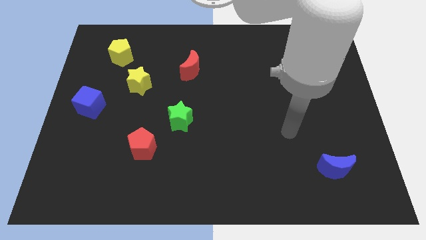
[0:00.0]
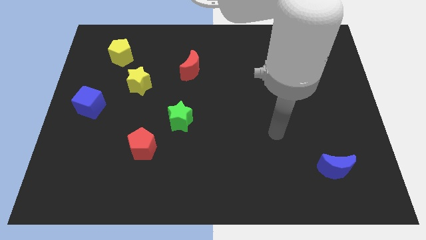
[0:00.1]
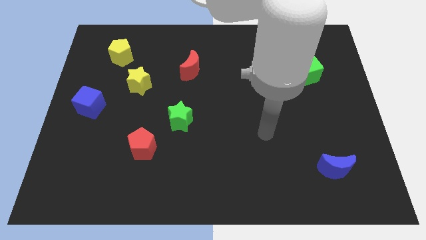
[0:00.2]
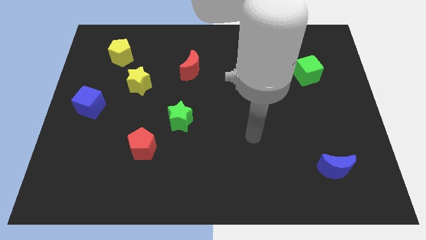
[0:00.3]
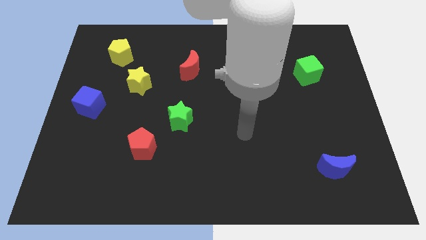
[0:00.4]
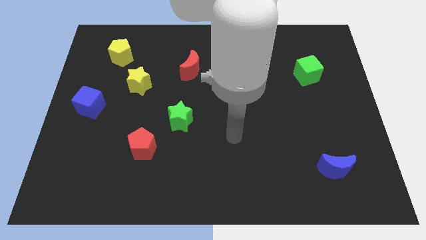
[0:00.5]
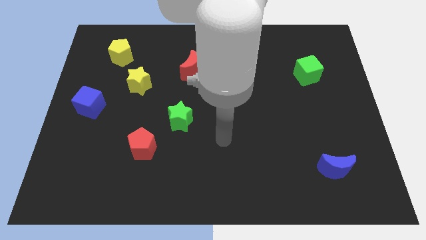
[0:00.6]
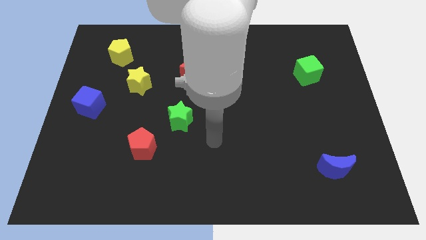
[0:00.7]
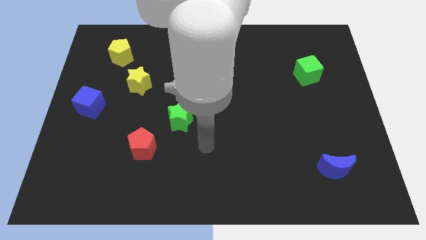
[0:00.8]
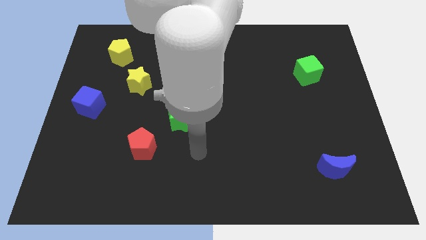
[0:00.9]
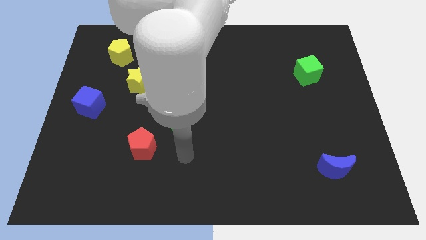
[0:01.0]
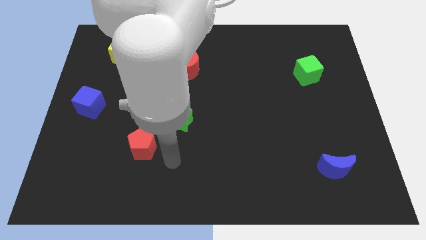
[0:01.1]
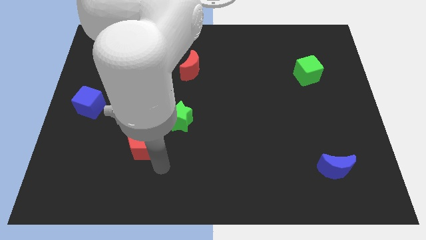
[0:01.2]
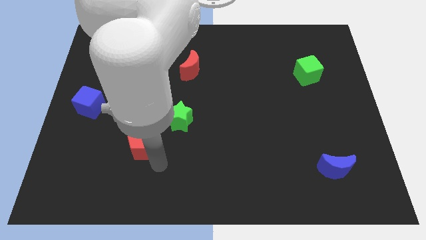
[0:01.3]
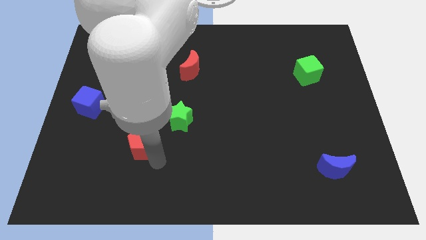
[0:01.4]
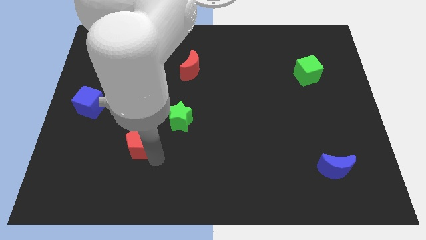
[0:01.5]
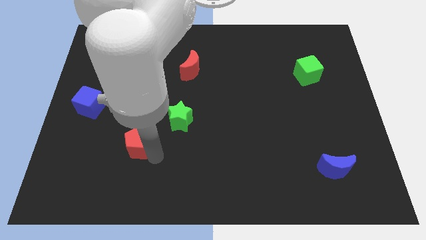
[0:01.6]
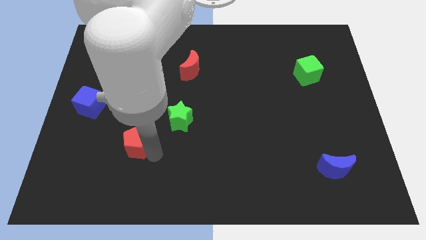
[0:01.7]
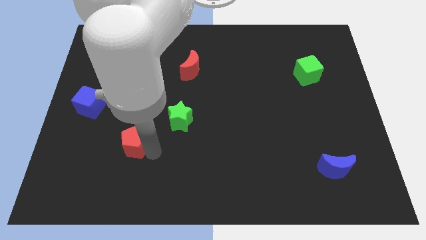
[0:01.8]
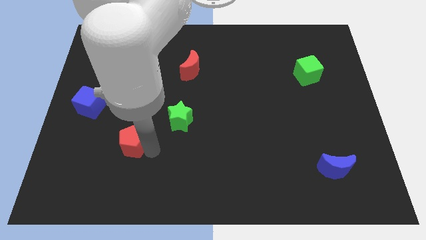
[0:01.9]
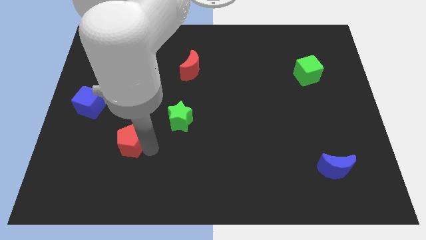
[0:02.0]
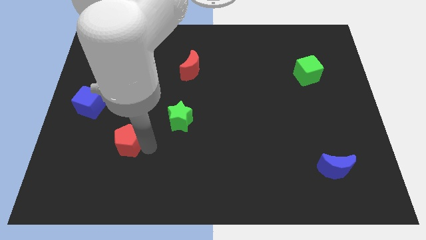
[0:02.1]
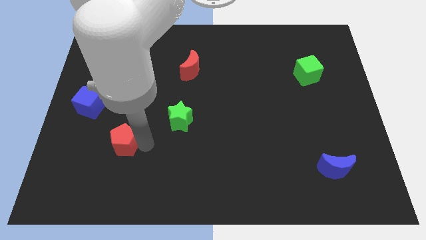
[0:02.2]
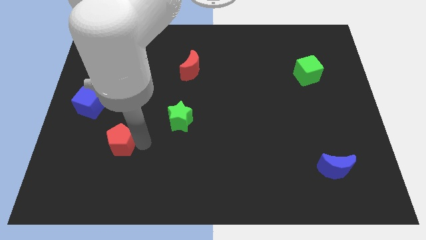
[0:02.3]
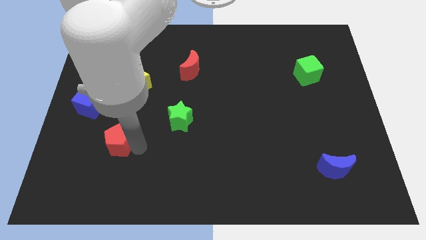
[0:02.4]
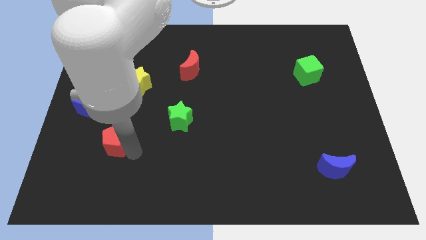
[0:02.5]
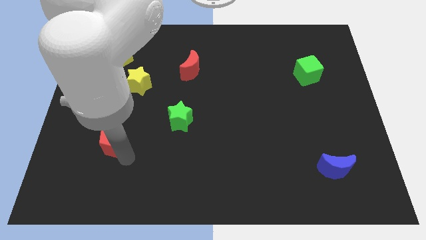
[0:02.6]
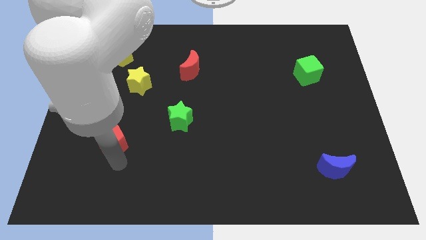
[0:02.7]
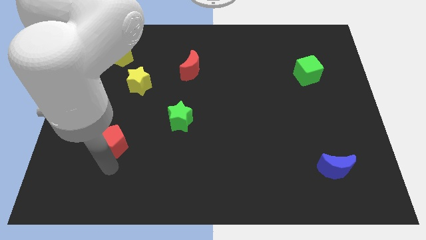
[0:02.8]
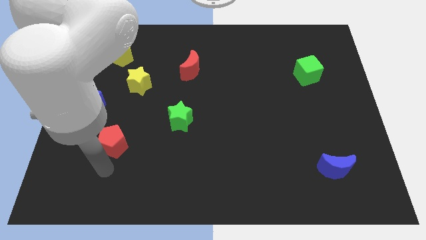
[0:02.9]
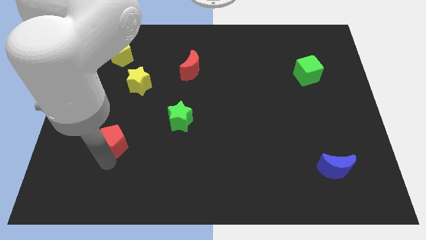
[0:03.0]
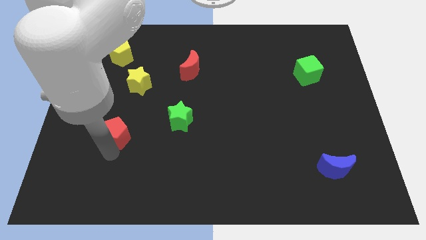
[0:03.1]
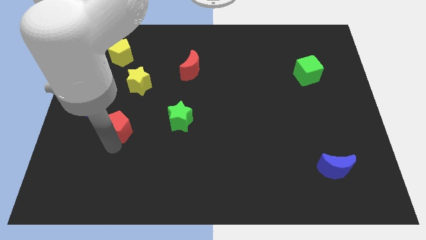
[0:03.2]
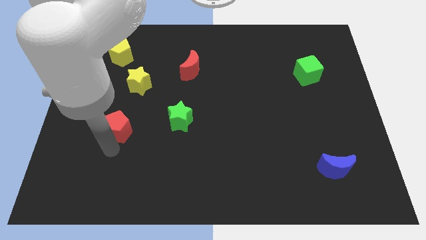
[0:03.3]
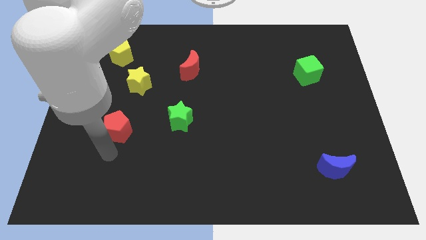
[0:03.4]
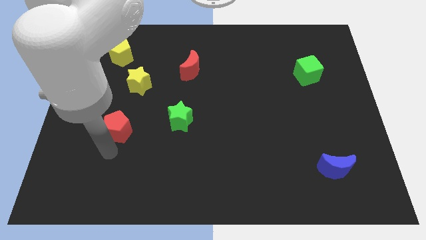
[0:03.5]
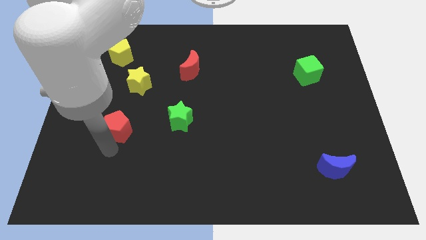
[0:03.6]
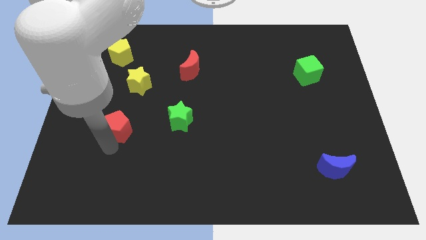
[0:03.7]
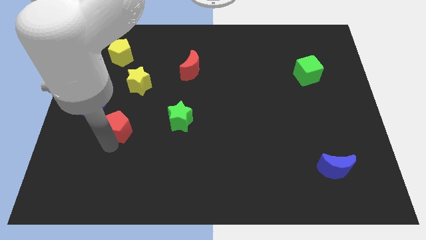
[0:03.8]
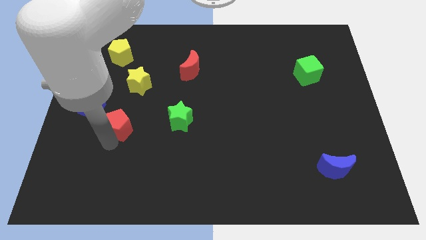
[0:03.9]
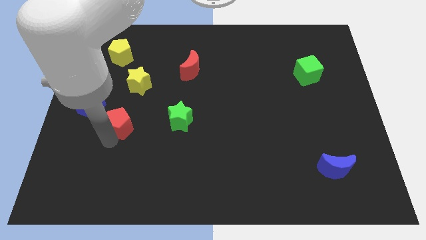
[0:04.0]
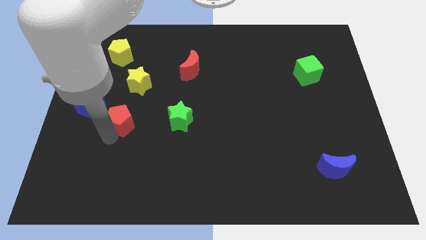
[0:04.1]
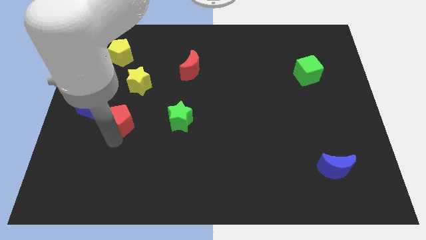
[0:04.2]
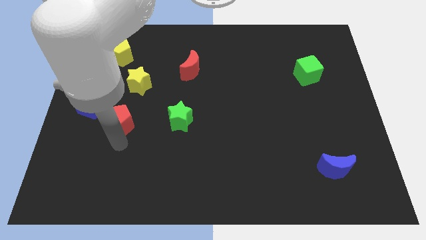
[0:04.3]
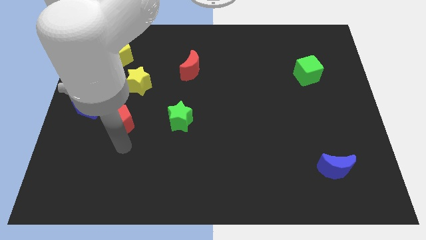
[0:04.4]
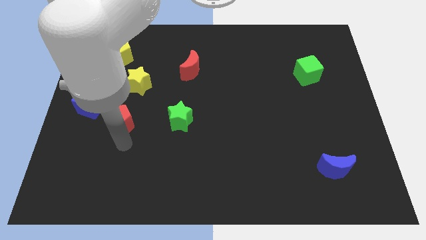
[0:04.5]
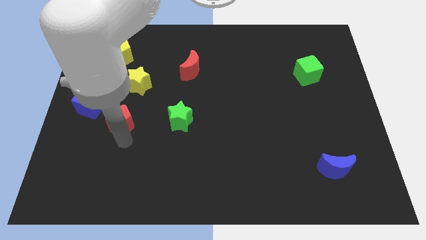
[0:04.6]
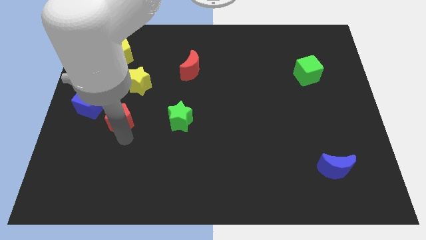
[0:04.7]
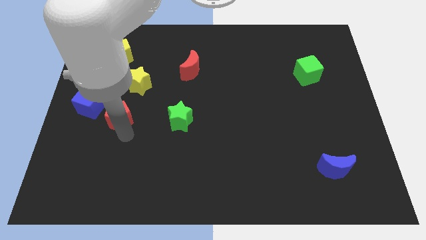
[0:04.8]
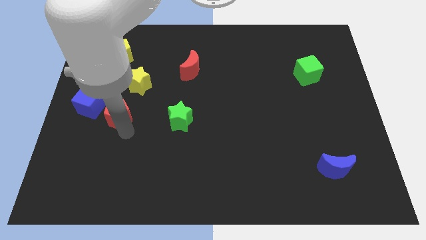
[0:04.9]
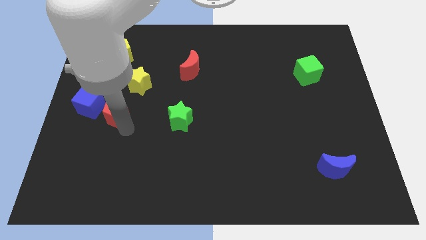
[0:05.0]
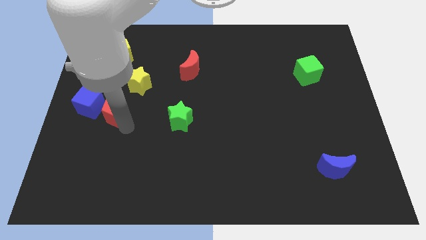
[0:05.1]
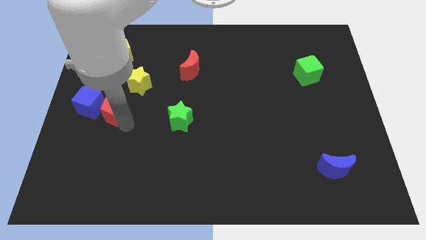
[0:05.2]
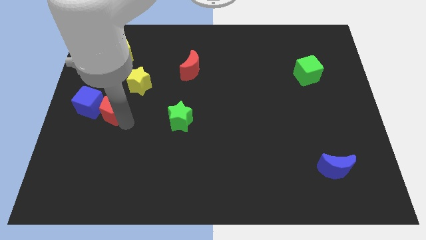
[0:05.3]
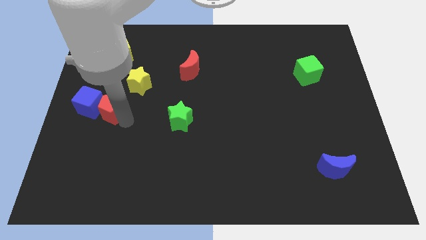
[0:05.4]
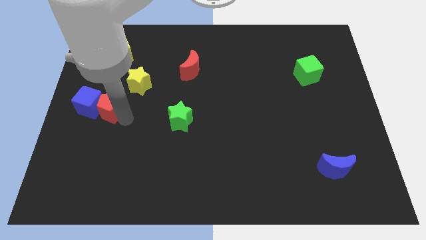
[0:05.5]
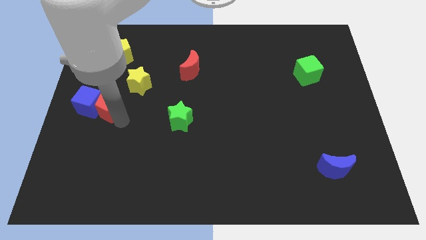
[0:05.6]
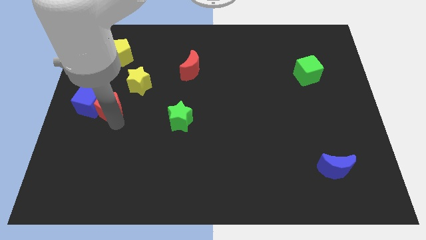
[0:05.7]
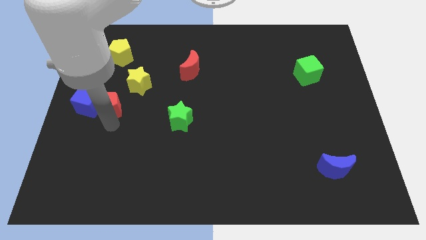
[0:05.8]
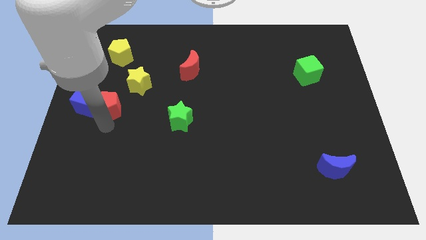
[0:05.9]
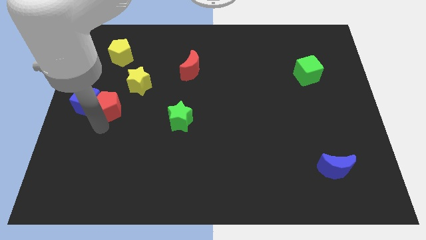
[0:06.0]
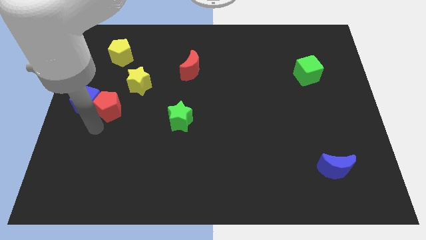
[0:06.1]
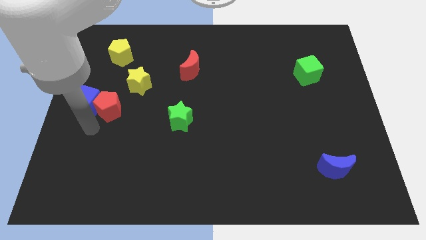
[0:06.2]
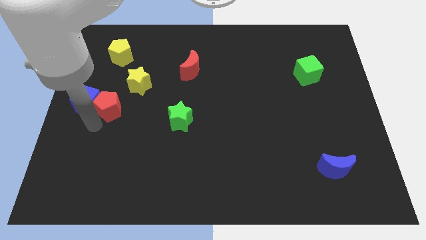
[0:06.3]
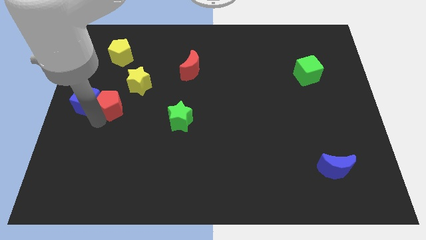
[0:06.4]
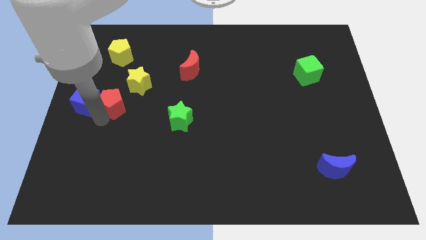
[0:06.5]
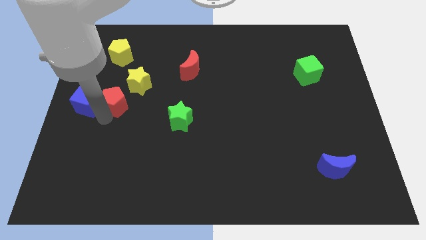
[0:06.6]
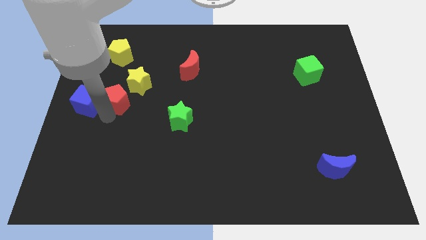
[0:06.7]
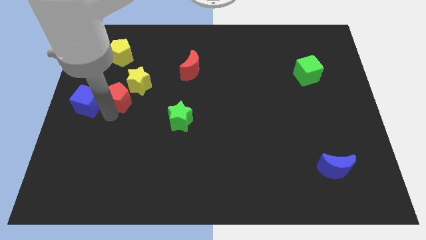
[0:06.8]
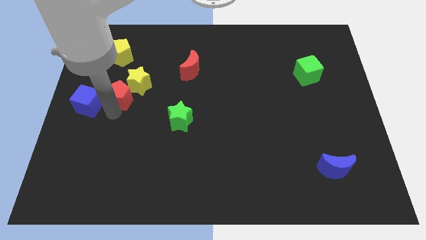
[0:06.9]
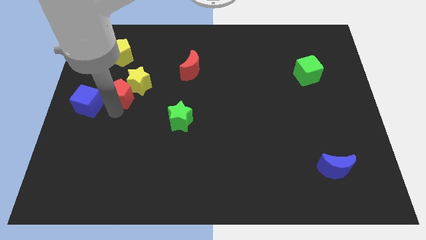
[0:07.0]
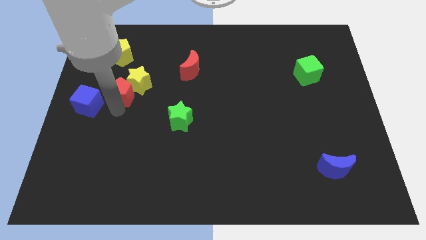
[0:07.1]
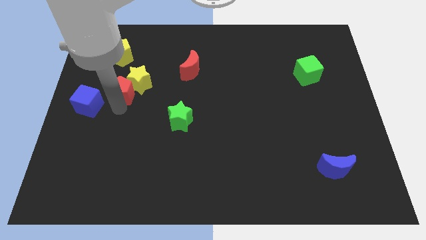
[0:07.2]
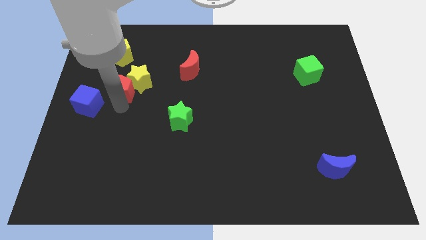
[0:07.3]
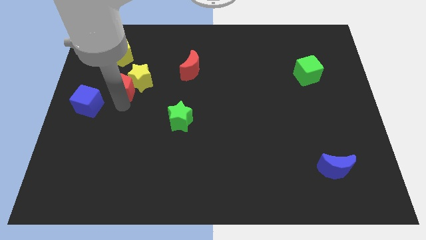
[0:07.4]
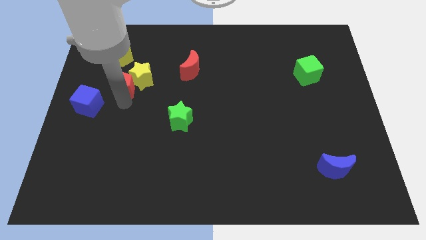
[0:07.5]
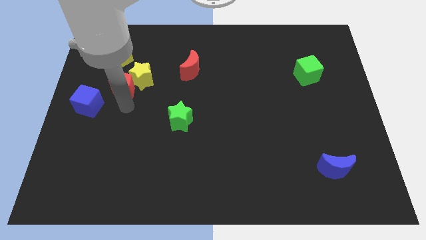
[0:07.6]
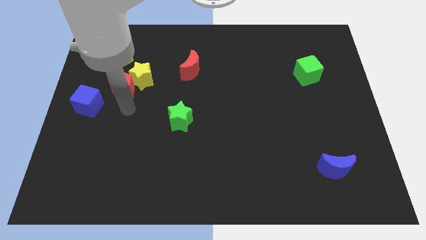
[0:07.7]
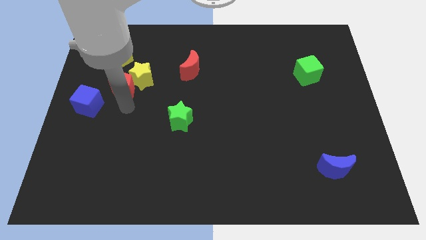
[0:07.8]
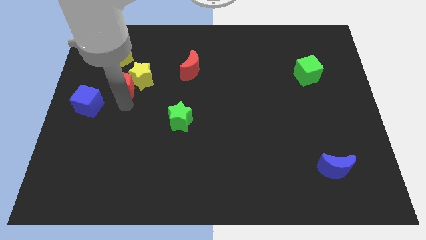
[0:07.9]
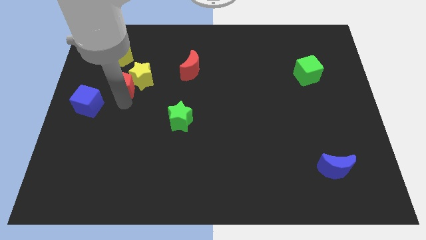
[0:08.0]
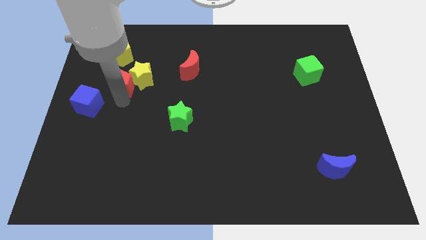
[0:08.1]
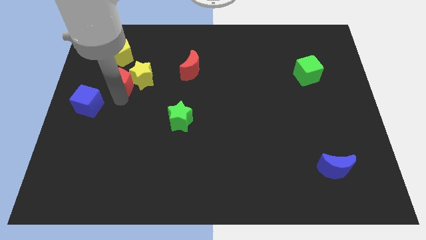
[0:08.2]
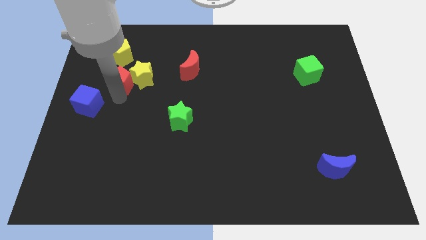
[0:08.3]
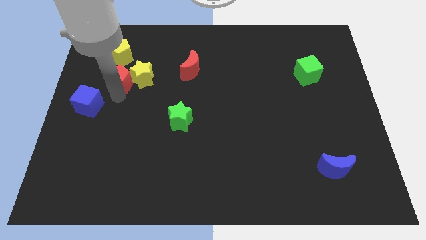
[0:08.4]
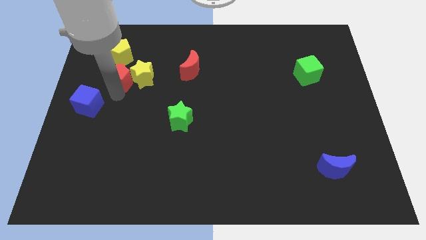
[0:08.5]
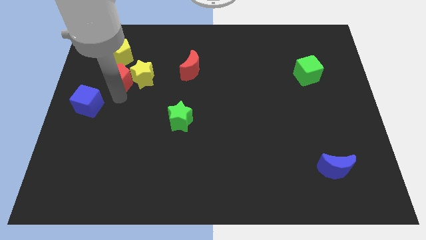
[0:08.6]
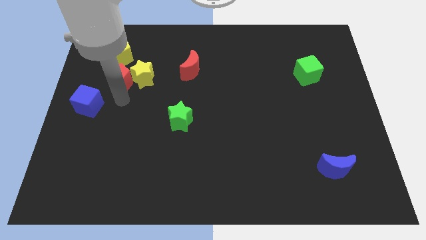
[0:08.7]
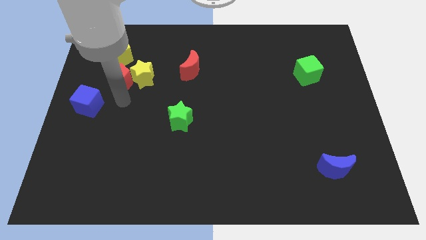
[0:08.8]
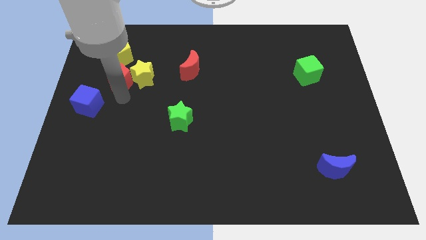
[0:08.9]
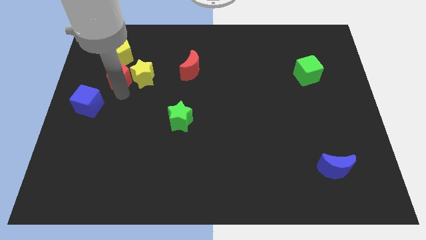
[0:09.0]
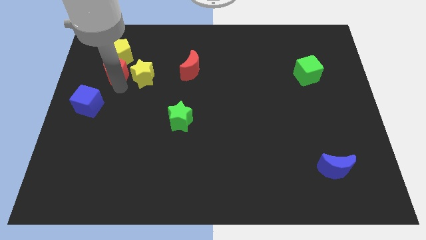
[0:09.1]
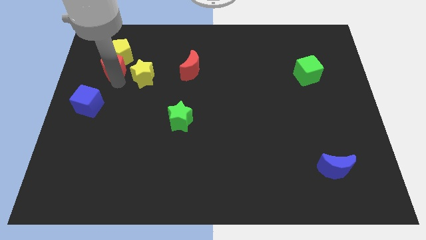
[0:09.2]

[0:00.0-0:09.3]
move the red pentagon close to the yellow pentagon
